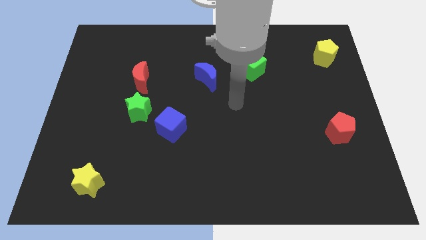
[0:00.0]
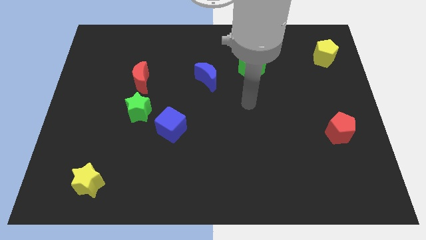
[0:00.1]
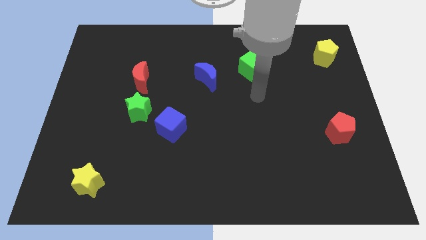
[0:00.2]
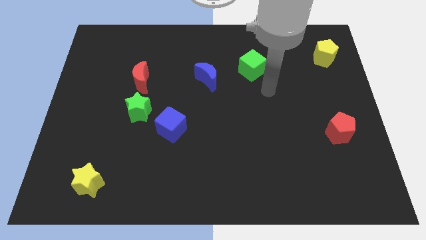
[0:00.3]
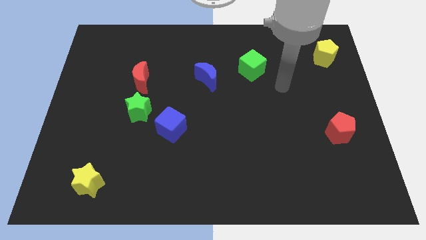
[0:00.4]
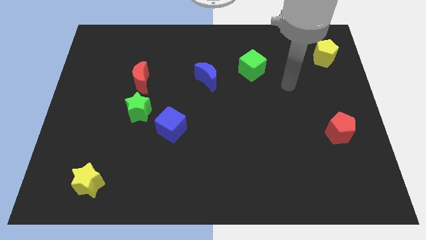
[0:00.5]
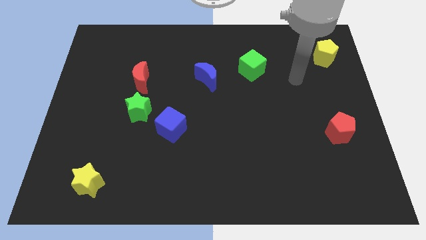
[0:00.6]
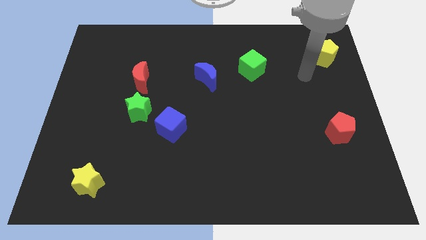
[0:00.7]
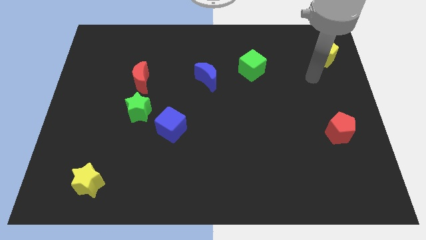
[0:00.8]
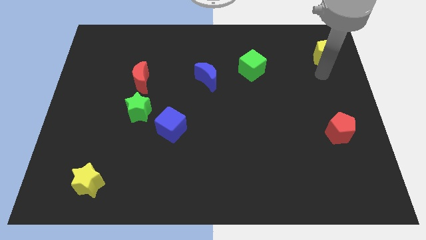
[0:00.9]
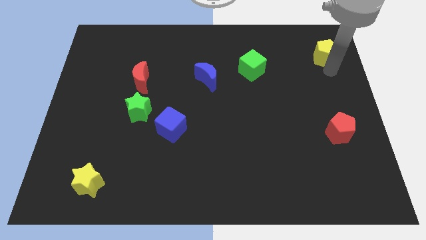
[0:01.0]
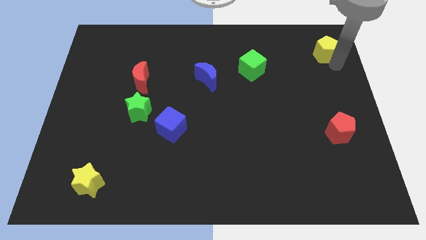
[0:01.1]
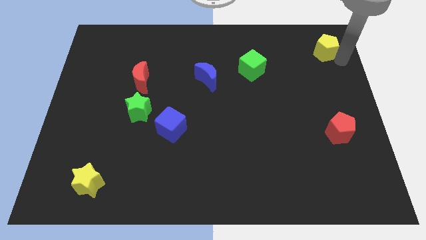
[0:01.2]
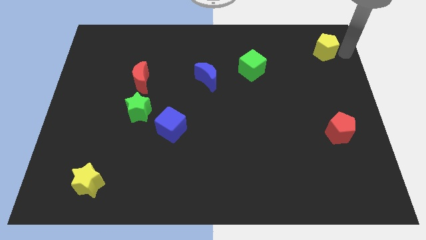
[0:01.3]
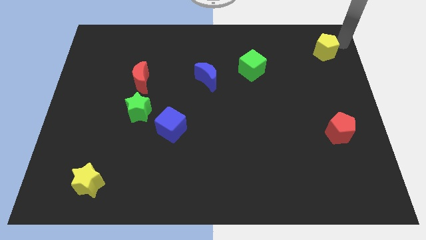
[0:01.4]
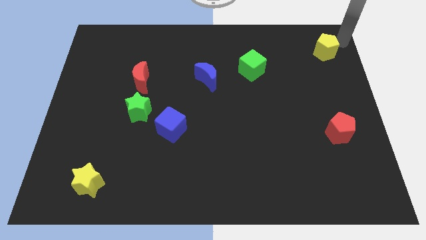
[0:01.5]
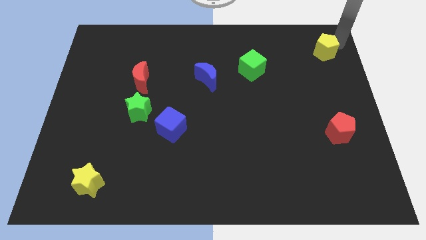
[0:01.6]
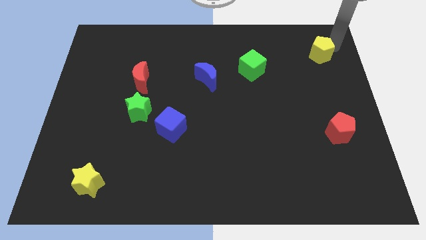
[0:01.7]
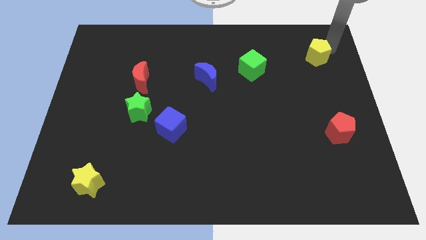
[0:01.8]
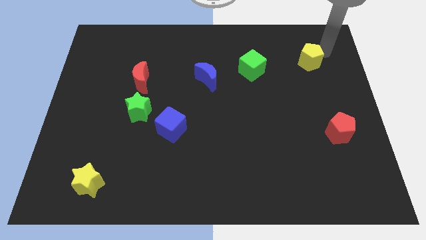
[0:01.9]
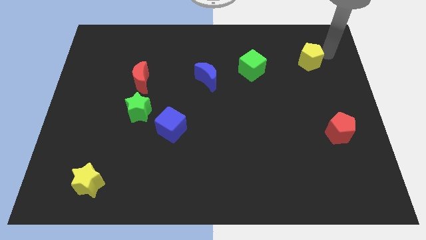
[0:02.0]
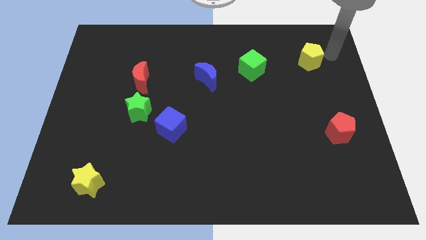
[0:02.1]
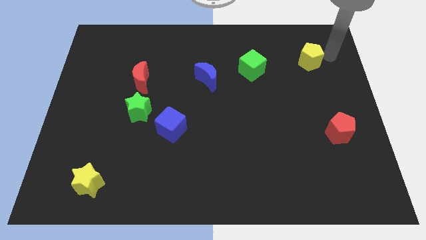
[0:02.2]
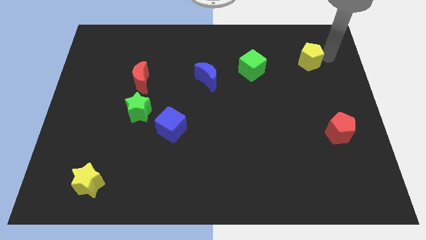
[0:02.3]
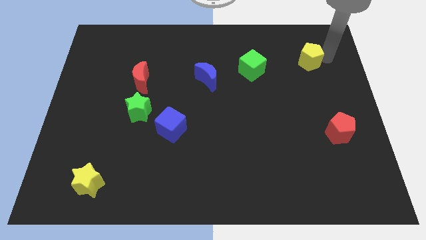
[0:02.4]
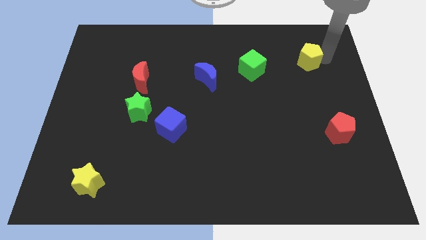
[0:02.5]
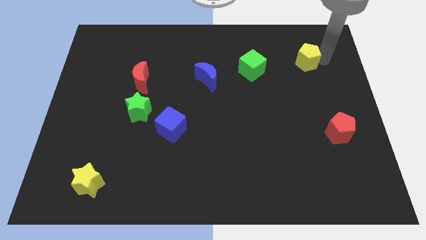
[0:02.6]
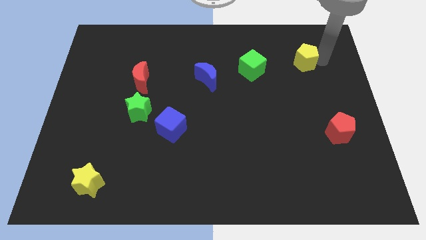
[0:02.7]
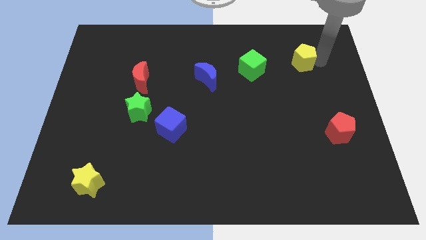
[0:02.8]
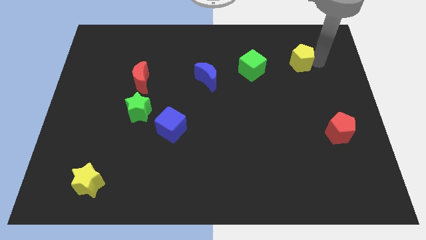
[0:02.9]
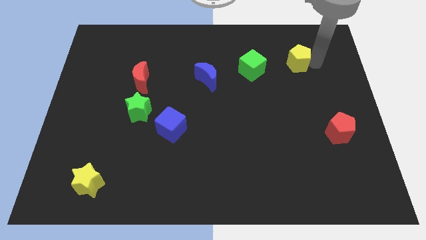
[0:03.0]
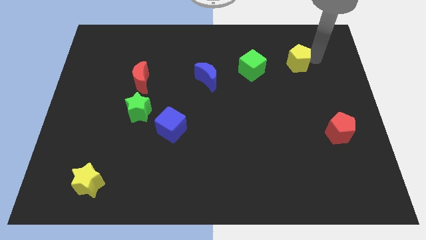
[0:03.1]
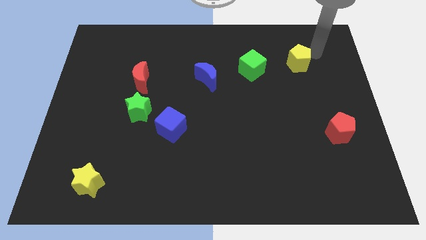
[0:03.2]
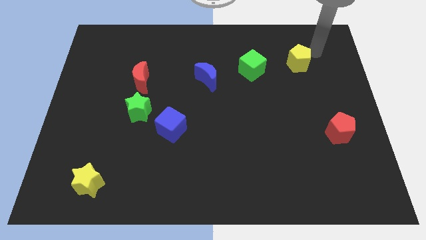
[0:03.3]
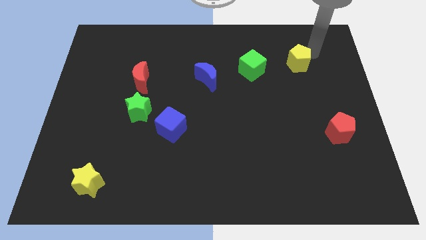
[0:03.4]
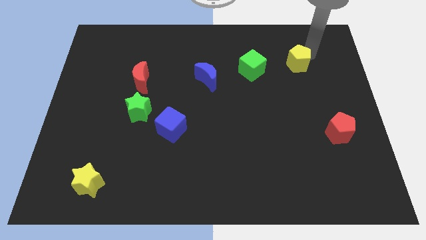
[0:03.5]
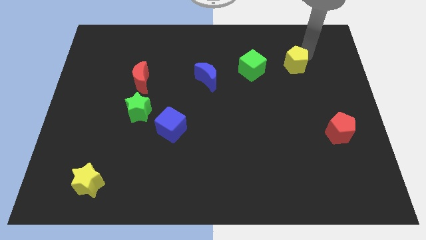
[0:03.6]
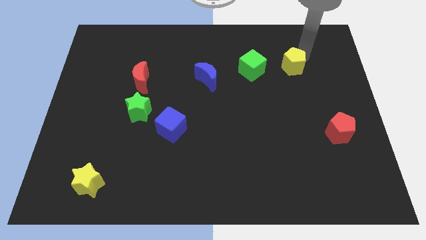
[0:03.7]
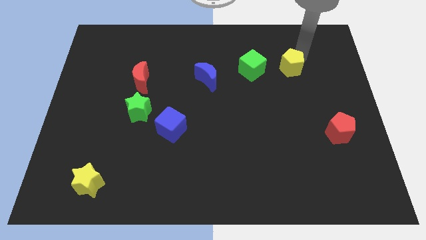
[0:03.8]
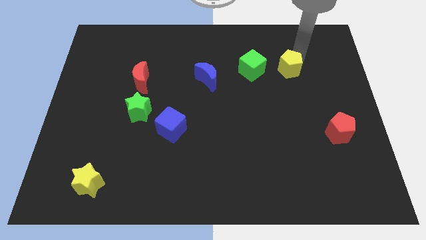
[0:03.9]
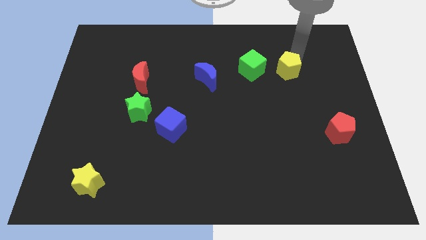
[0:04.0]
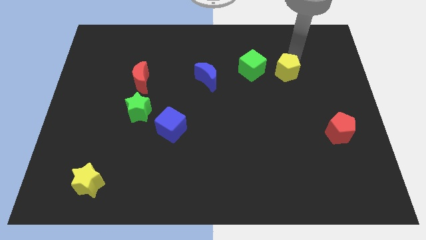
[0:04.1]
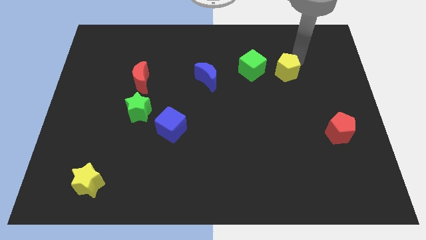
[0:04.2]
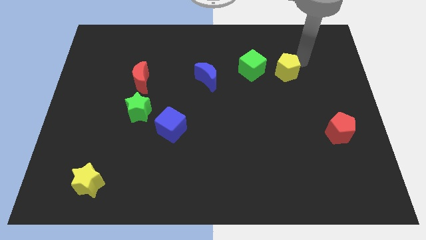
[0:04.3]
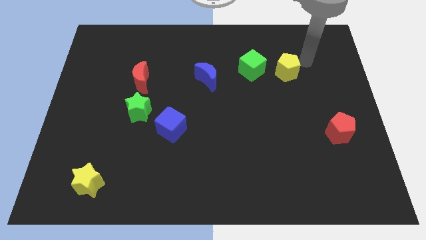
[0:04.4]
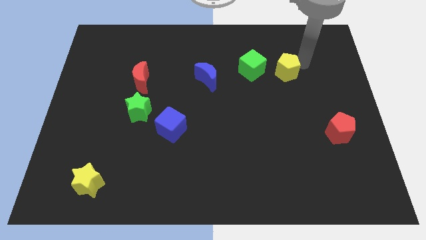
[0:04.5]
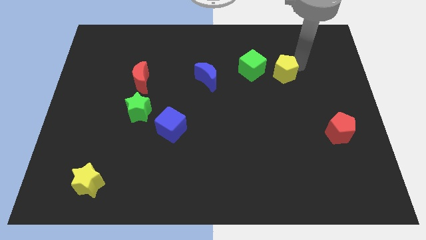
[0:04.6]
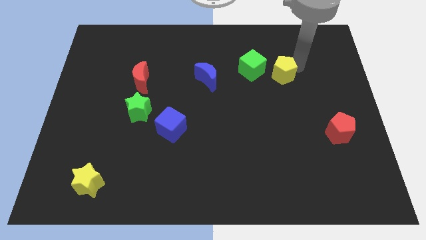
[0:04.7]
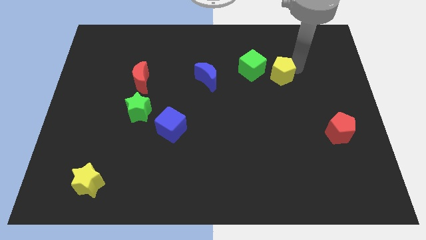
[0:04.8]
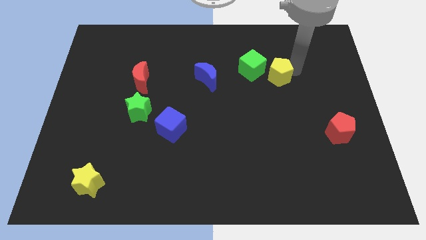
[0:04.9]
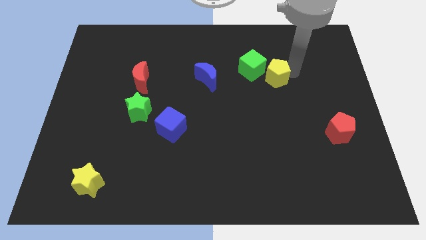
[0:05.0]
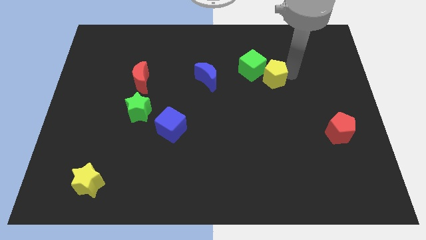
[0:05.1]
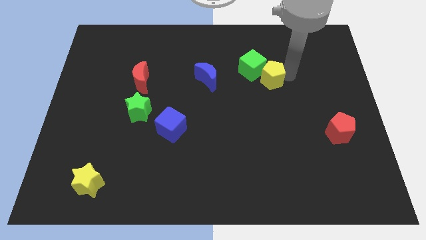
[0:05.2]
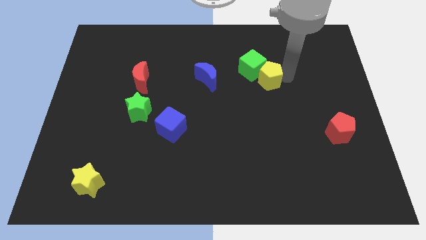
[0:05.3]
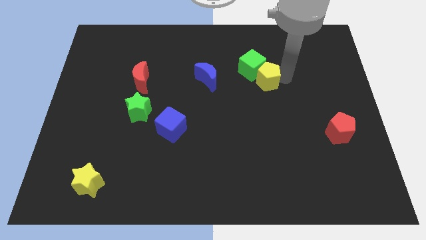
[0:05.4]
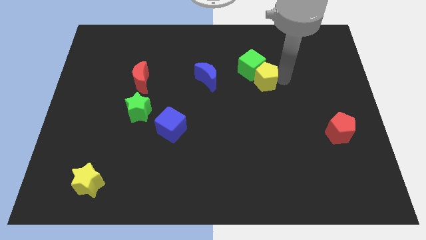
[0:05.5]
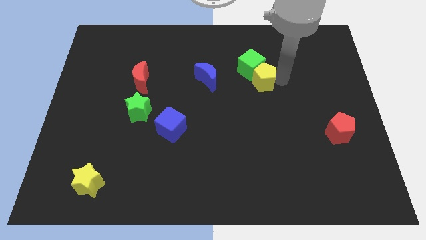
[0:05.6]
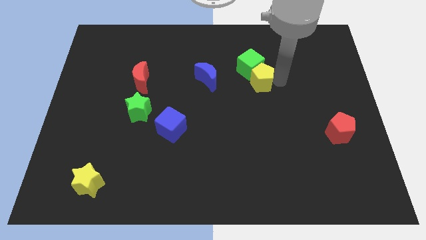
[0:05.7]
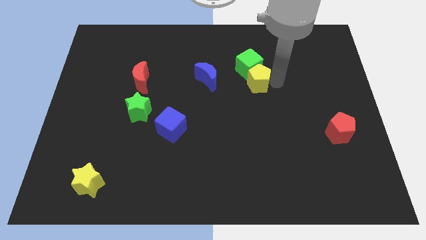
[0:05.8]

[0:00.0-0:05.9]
move the yellow pentagon to the center of the board

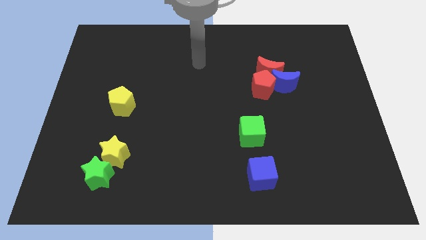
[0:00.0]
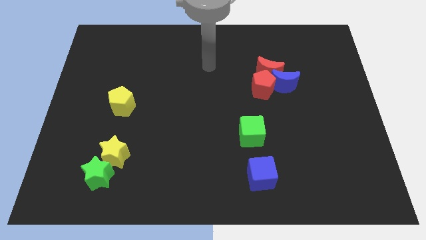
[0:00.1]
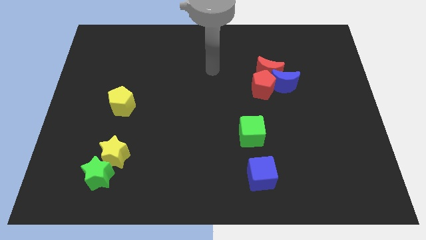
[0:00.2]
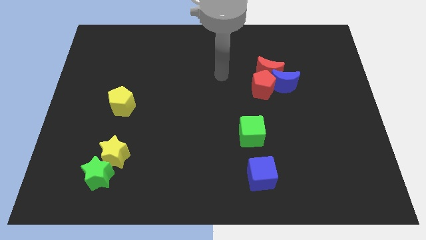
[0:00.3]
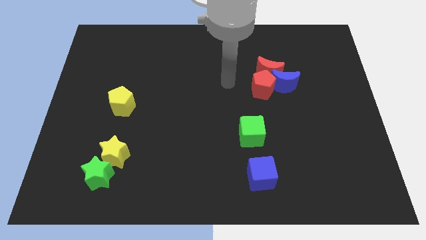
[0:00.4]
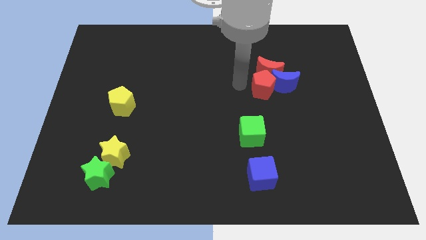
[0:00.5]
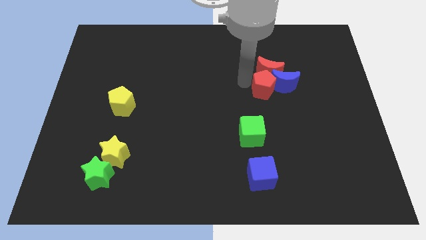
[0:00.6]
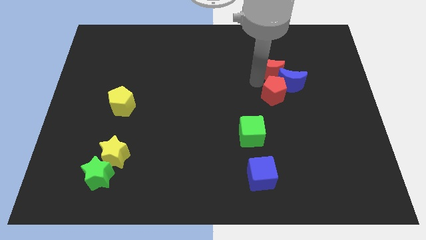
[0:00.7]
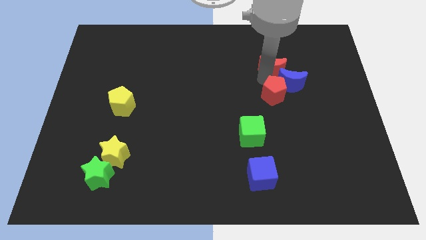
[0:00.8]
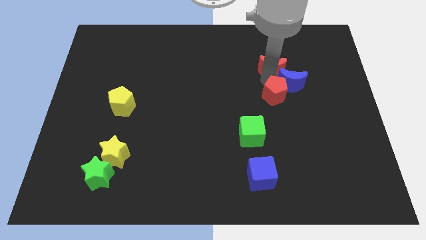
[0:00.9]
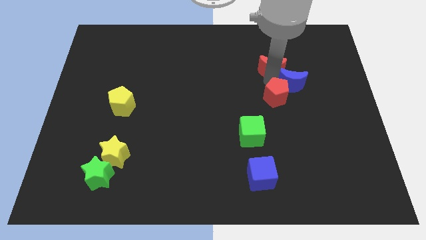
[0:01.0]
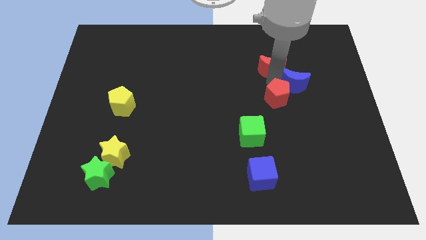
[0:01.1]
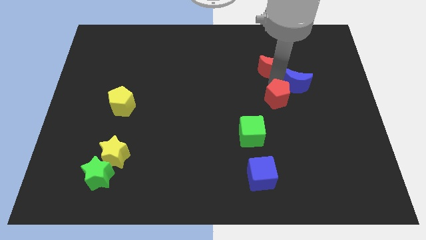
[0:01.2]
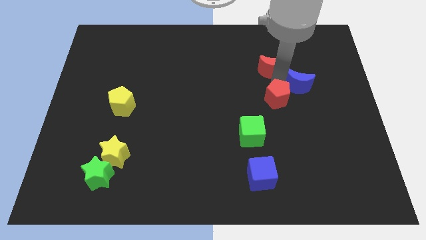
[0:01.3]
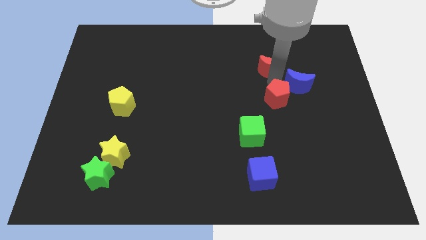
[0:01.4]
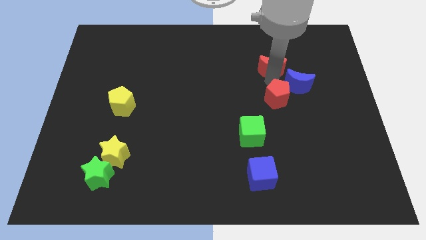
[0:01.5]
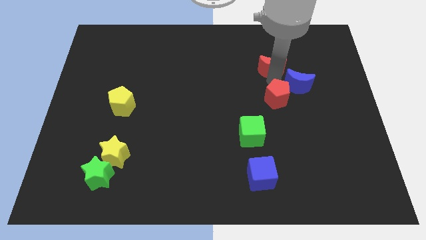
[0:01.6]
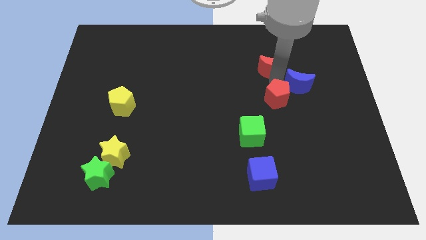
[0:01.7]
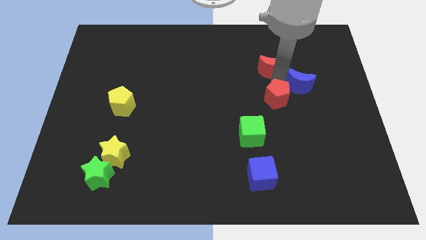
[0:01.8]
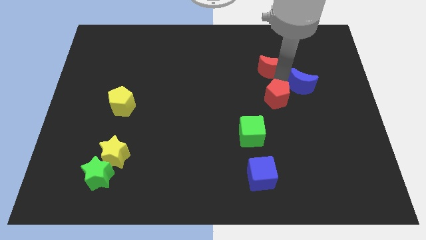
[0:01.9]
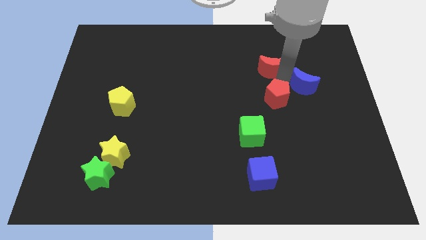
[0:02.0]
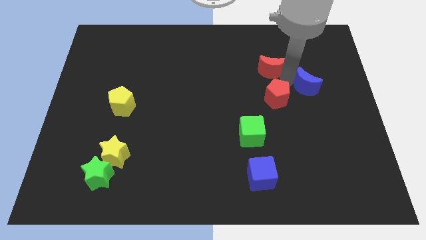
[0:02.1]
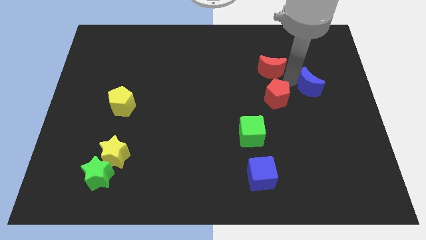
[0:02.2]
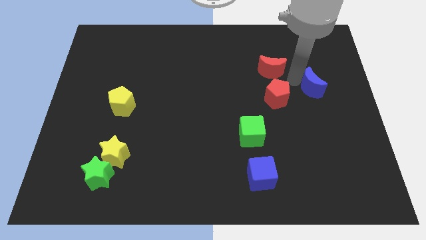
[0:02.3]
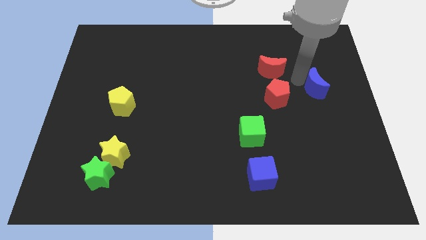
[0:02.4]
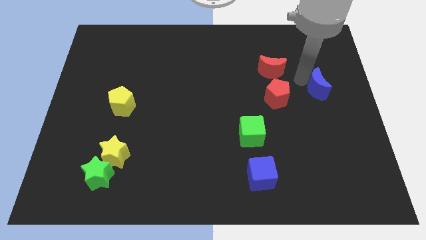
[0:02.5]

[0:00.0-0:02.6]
push the blue moon to the right side of the board
